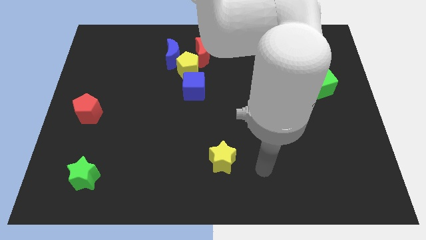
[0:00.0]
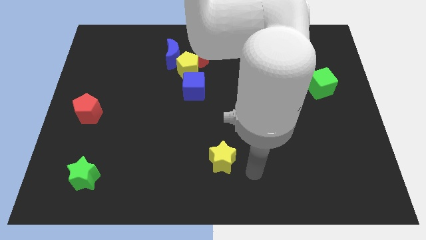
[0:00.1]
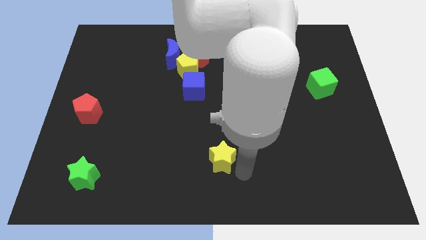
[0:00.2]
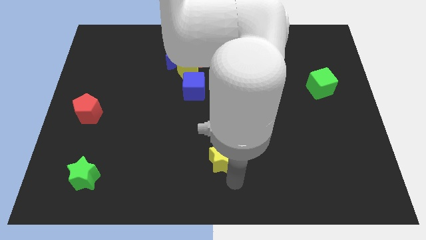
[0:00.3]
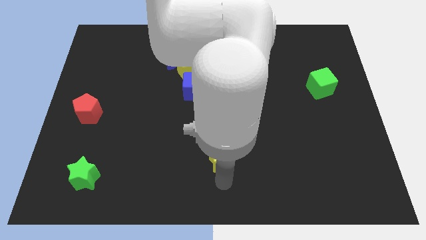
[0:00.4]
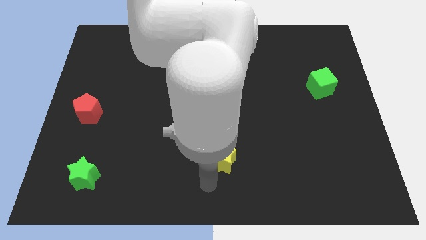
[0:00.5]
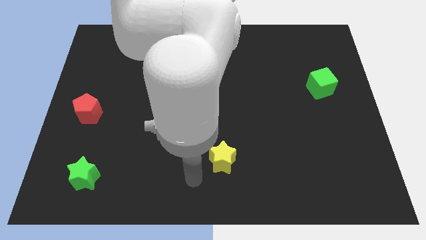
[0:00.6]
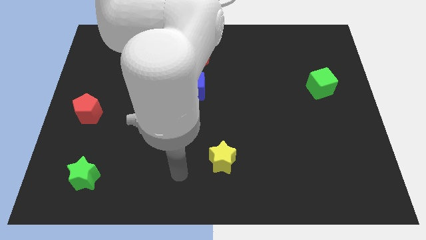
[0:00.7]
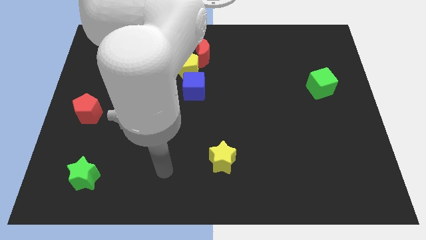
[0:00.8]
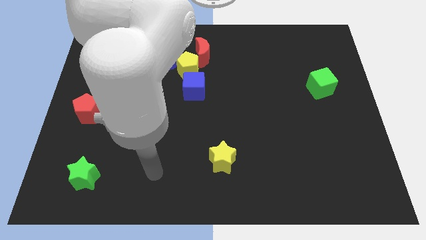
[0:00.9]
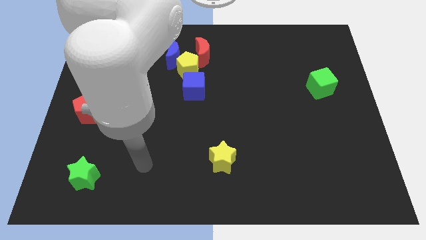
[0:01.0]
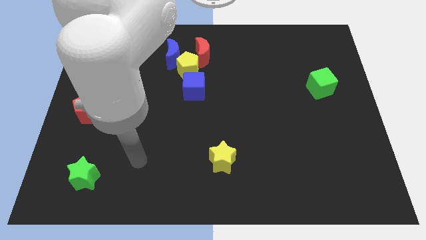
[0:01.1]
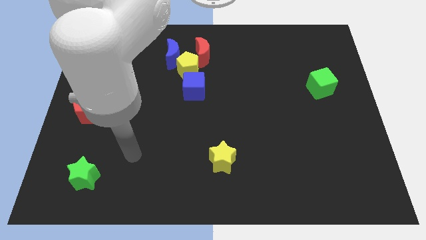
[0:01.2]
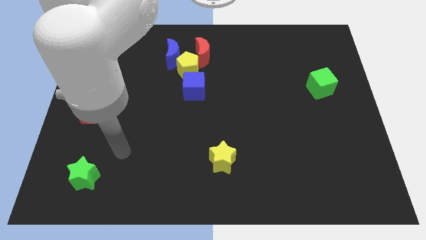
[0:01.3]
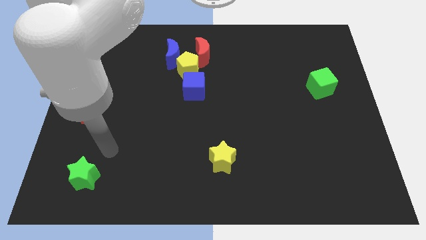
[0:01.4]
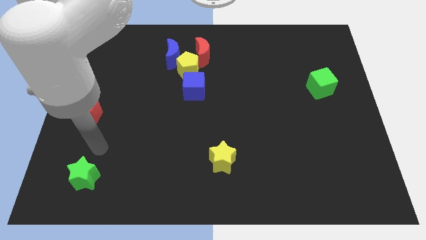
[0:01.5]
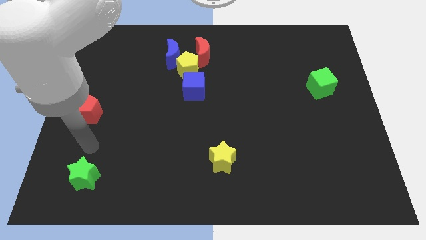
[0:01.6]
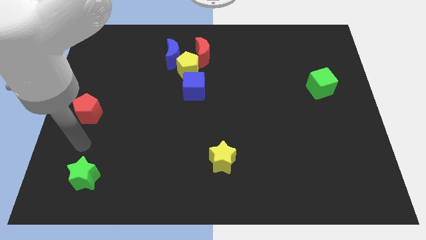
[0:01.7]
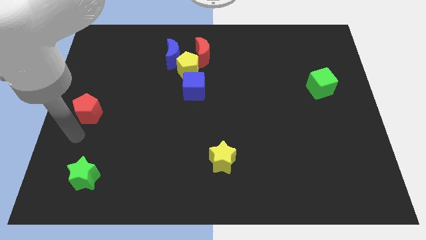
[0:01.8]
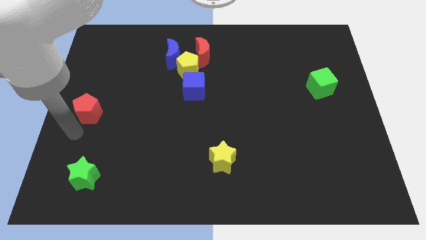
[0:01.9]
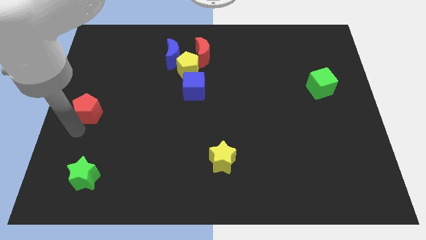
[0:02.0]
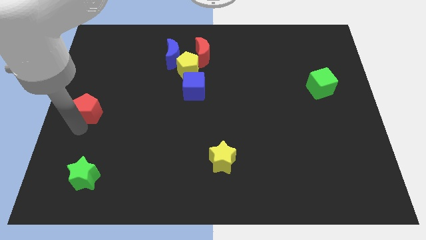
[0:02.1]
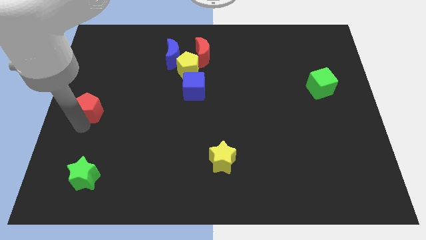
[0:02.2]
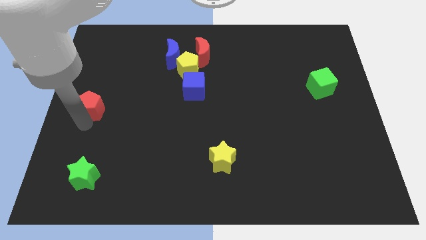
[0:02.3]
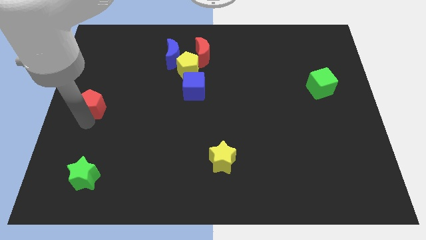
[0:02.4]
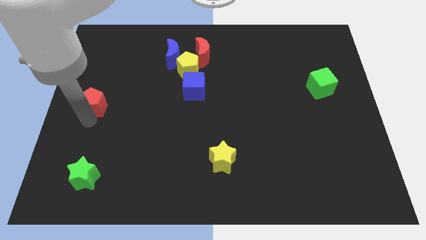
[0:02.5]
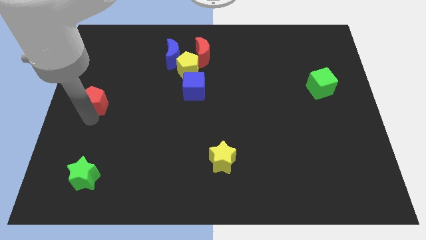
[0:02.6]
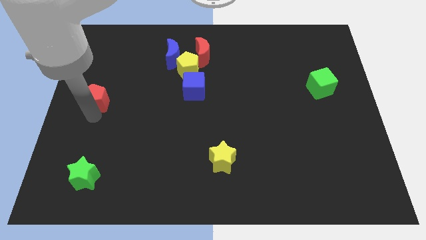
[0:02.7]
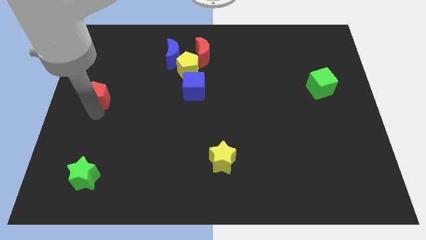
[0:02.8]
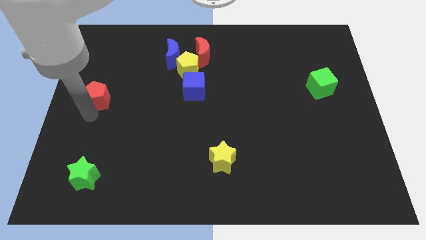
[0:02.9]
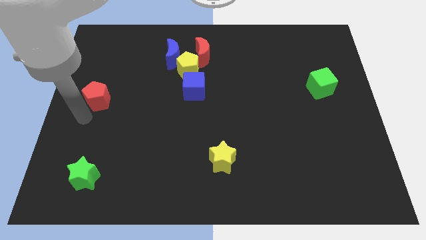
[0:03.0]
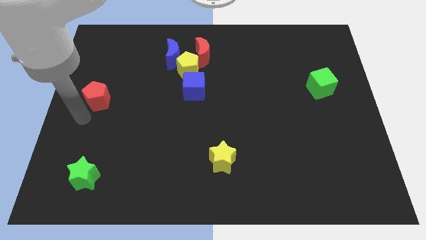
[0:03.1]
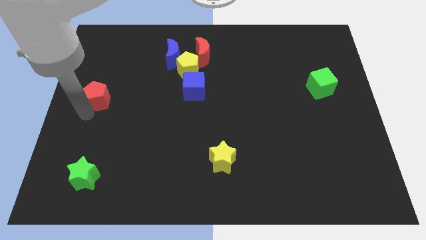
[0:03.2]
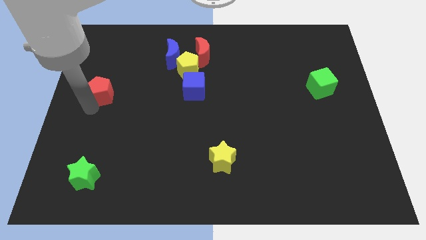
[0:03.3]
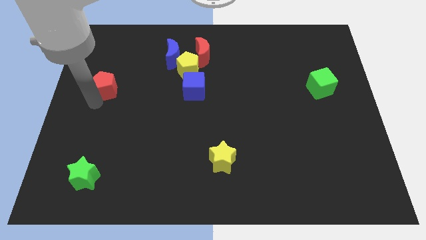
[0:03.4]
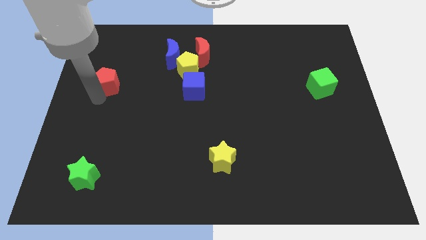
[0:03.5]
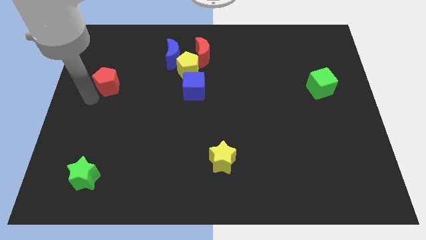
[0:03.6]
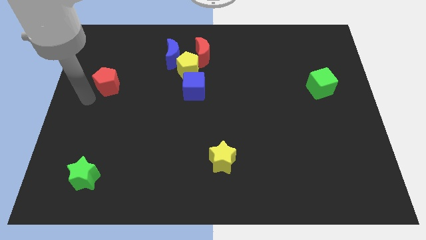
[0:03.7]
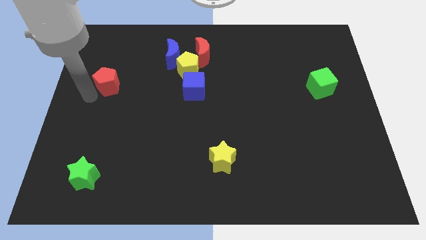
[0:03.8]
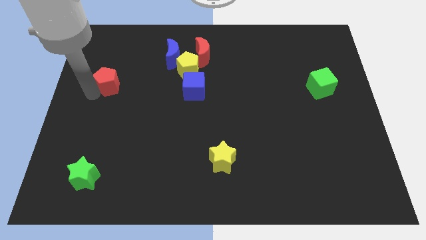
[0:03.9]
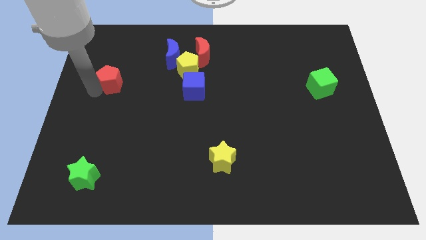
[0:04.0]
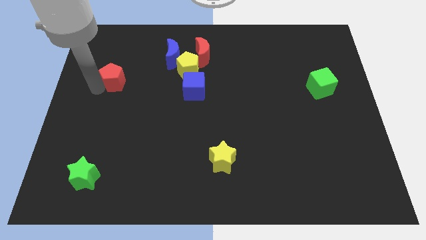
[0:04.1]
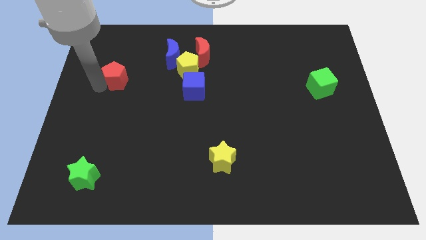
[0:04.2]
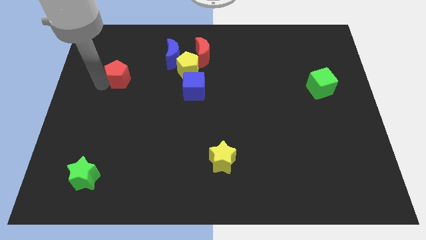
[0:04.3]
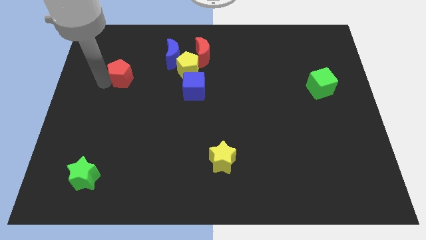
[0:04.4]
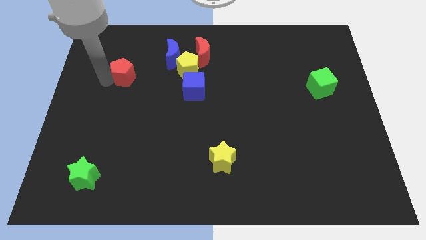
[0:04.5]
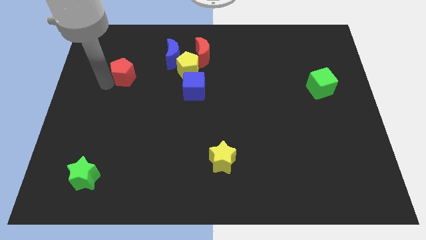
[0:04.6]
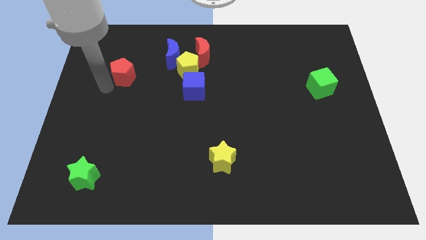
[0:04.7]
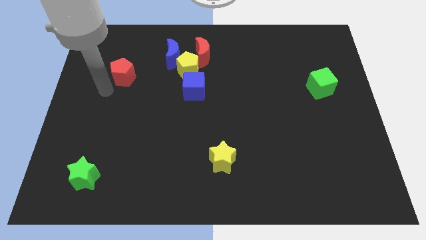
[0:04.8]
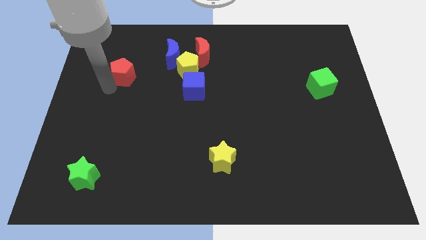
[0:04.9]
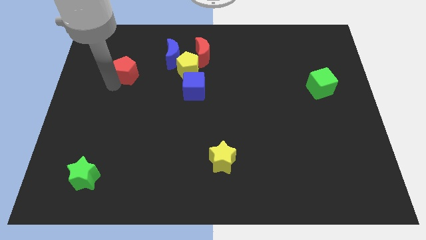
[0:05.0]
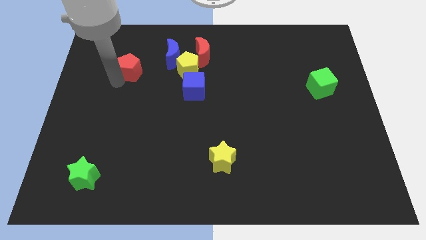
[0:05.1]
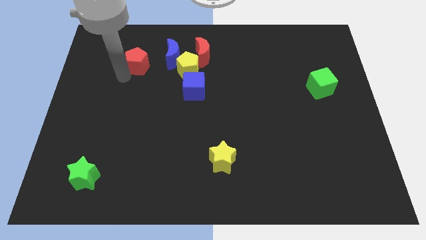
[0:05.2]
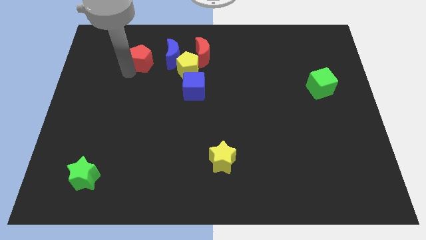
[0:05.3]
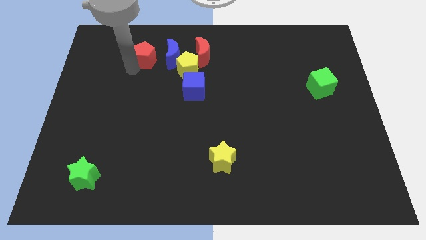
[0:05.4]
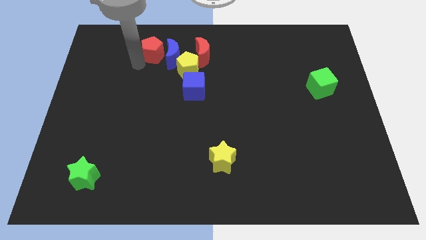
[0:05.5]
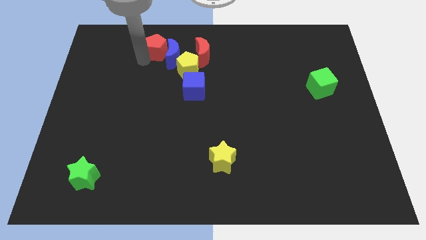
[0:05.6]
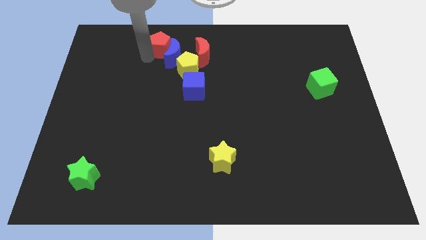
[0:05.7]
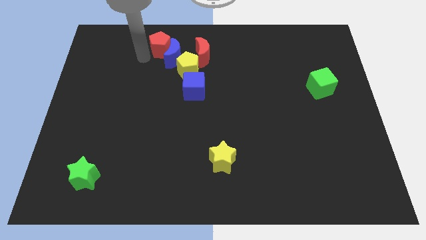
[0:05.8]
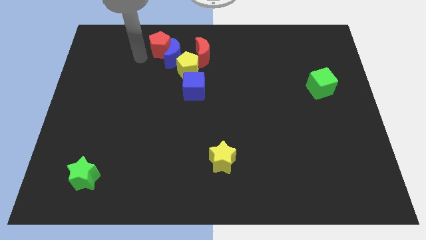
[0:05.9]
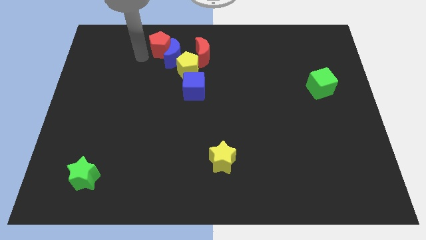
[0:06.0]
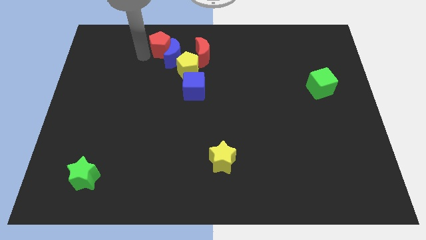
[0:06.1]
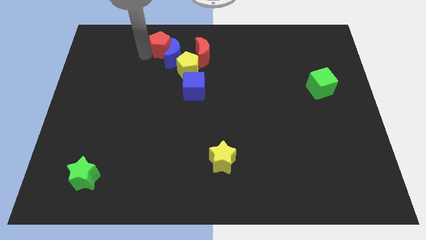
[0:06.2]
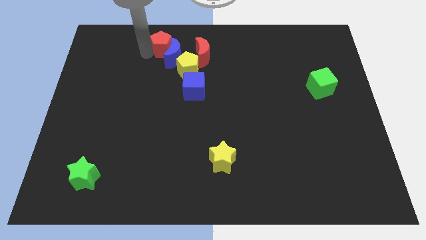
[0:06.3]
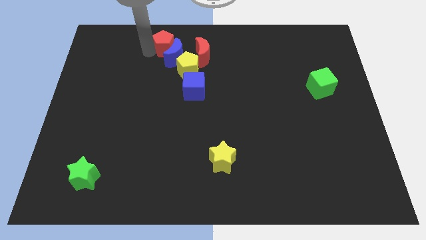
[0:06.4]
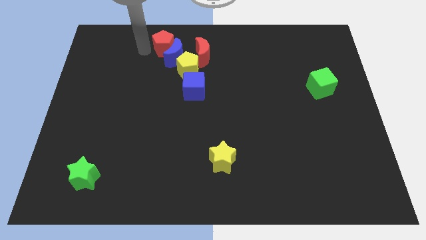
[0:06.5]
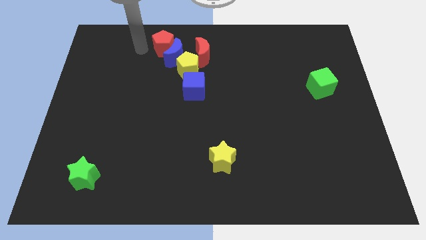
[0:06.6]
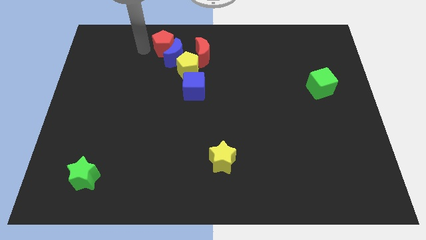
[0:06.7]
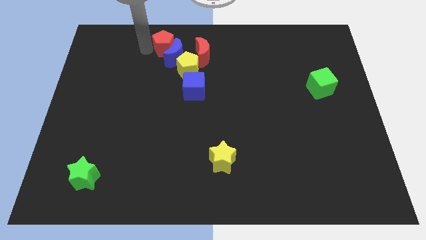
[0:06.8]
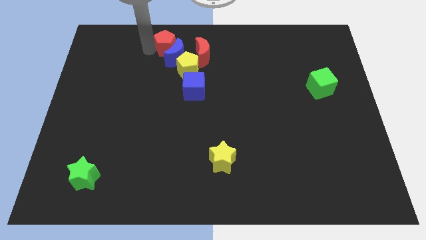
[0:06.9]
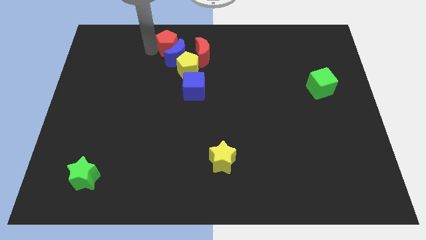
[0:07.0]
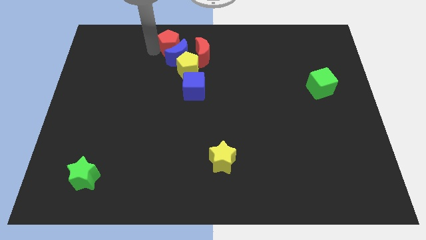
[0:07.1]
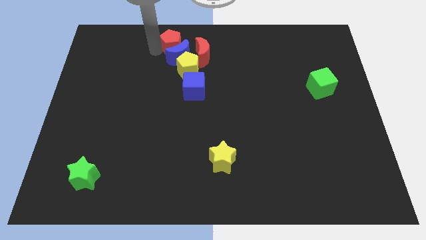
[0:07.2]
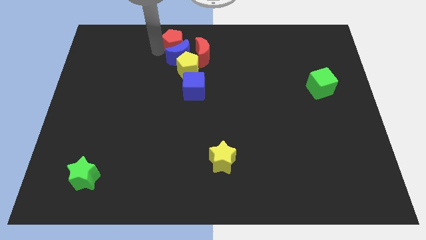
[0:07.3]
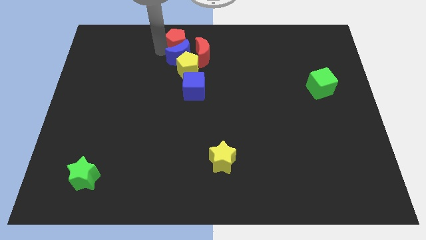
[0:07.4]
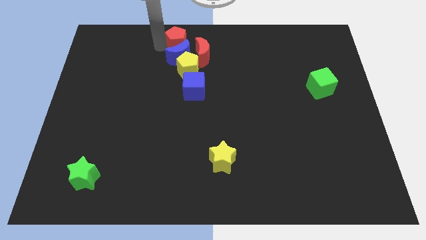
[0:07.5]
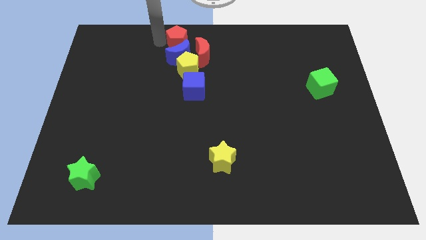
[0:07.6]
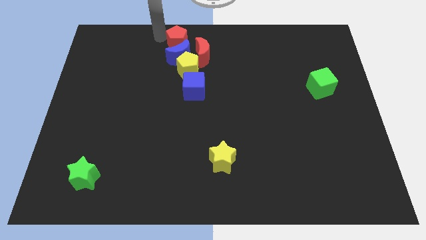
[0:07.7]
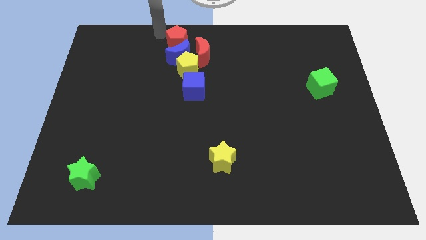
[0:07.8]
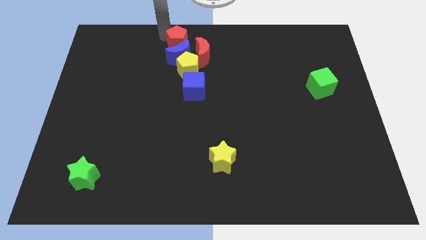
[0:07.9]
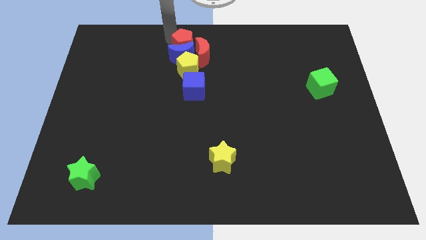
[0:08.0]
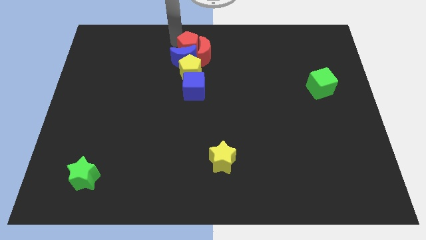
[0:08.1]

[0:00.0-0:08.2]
slide the red pentagon next to the red moon

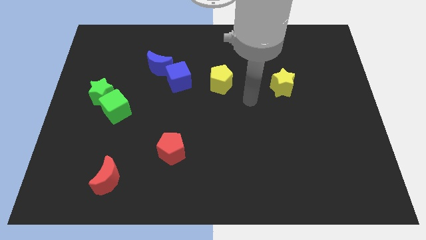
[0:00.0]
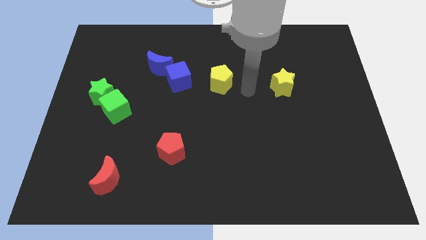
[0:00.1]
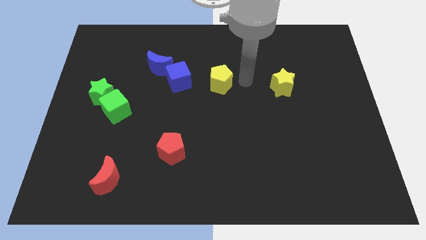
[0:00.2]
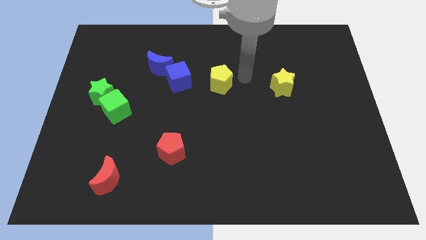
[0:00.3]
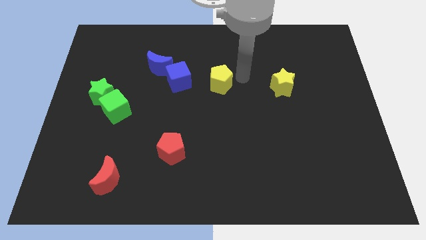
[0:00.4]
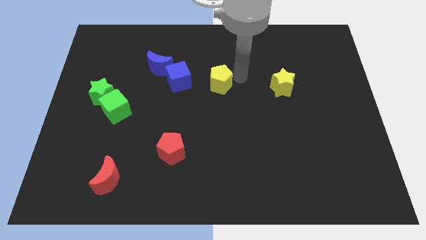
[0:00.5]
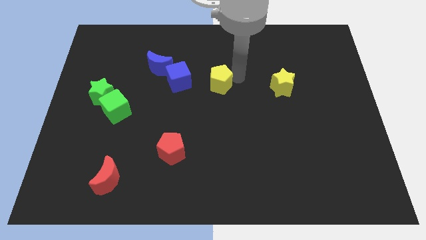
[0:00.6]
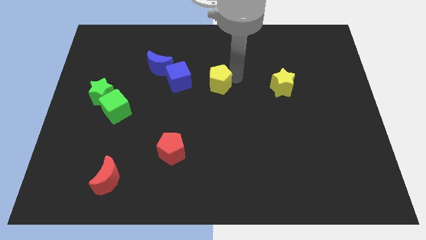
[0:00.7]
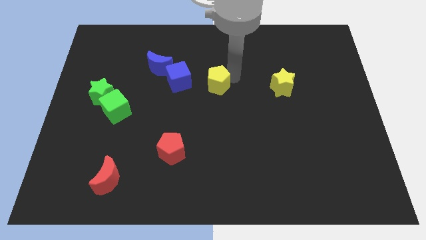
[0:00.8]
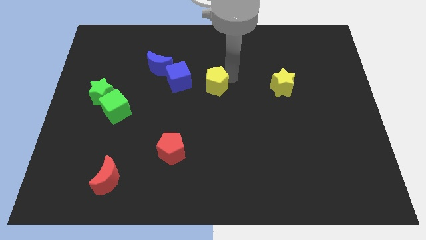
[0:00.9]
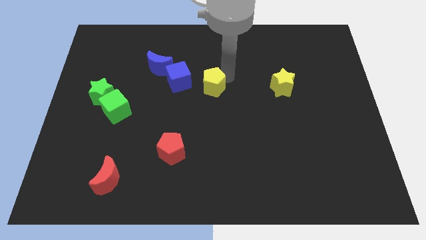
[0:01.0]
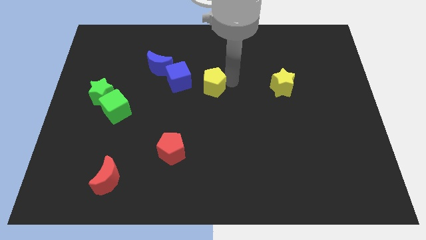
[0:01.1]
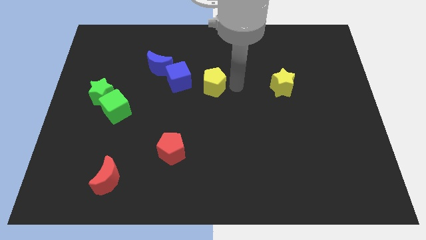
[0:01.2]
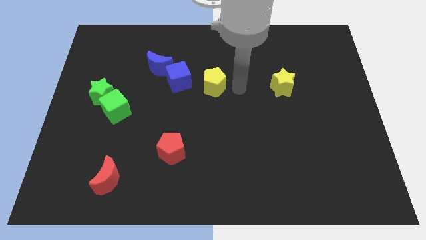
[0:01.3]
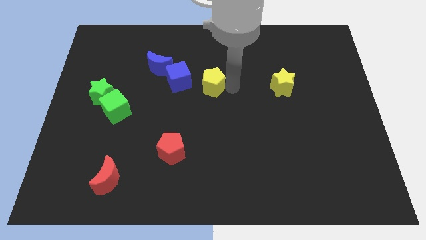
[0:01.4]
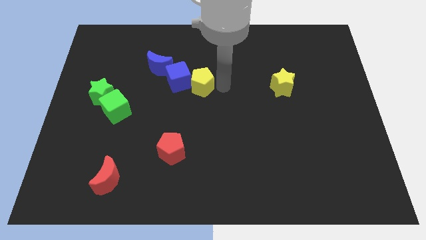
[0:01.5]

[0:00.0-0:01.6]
put the yellow pentagon towards the blue cube
